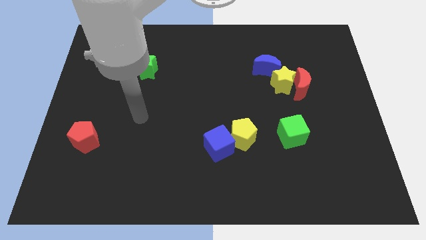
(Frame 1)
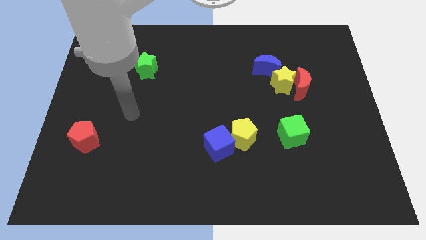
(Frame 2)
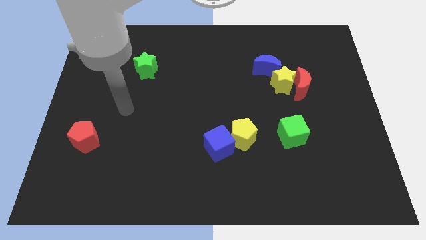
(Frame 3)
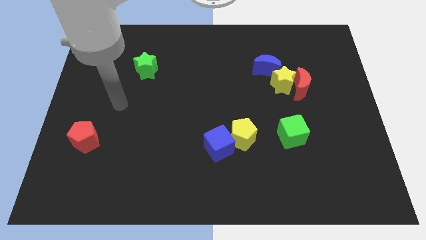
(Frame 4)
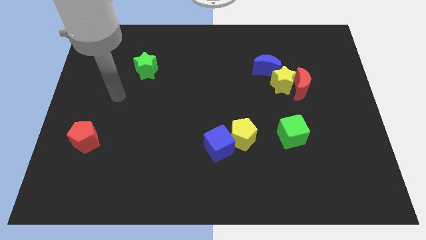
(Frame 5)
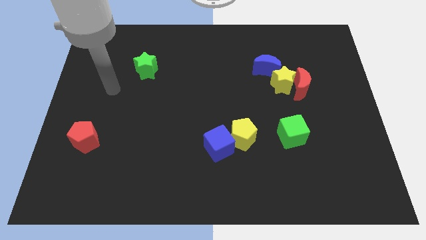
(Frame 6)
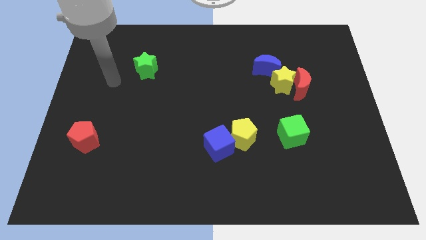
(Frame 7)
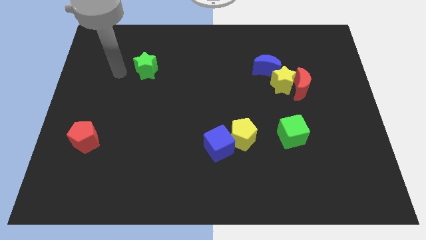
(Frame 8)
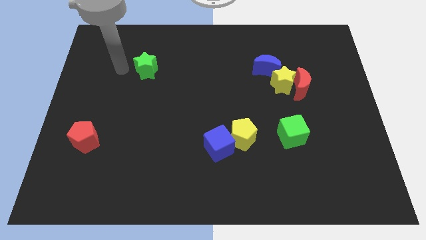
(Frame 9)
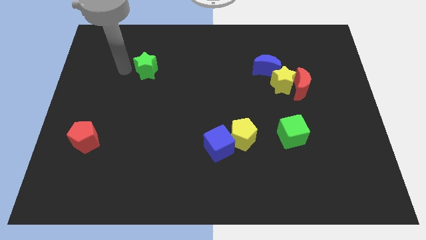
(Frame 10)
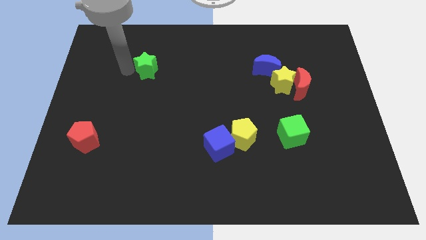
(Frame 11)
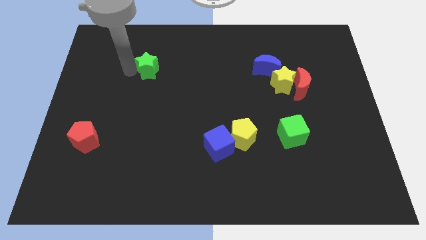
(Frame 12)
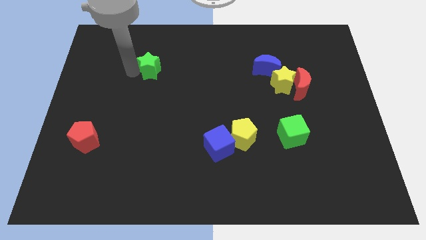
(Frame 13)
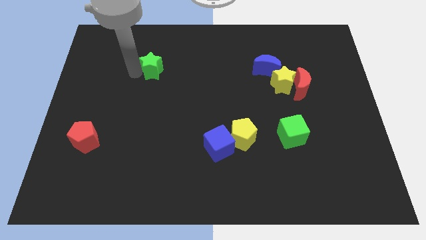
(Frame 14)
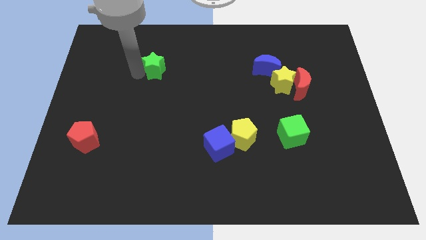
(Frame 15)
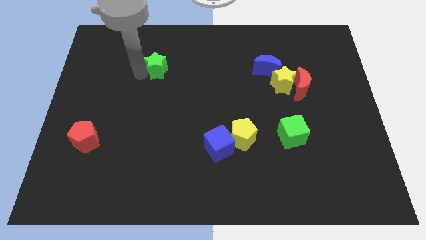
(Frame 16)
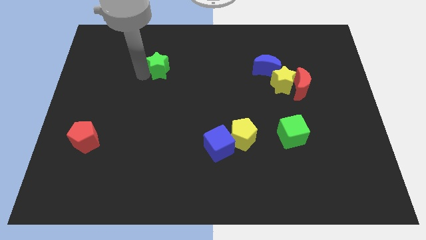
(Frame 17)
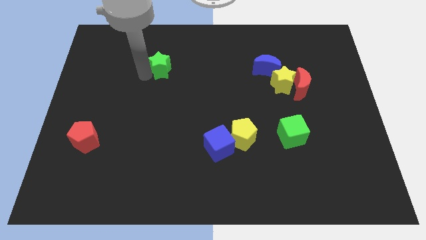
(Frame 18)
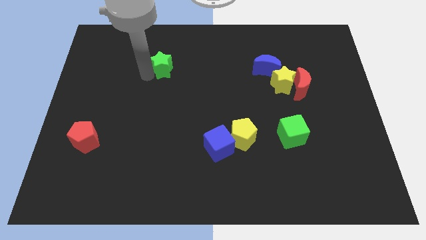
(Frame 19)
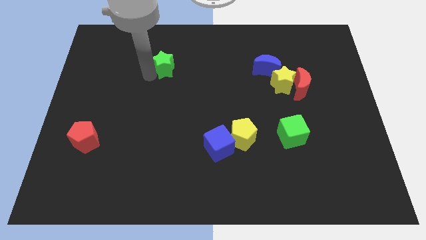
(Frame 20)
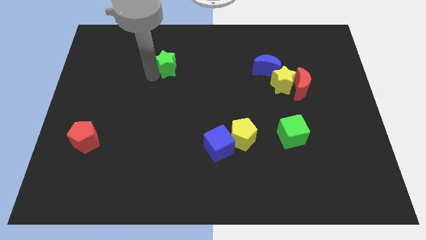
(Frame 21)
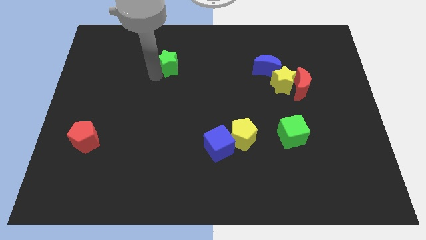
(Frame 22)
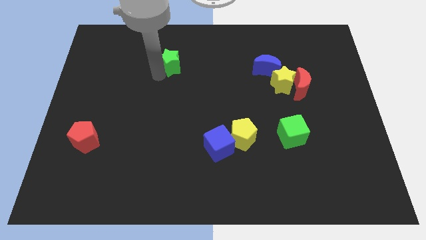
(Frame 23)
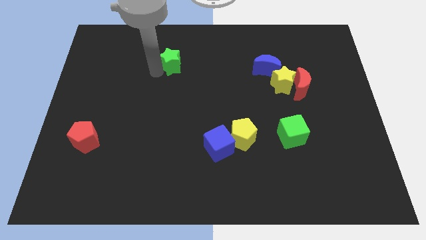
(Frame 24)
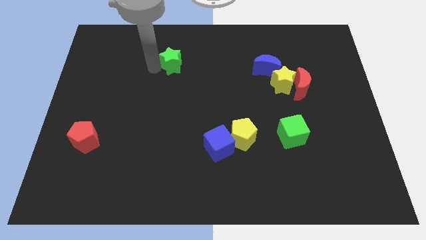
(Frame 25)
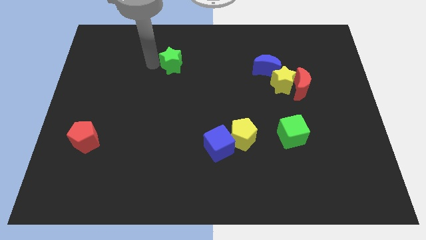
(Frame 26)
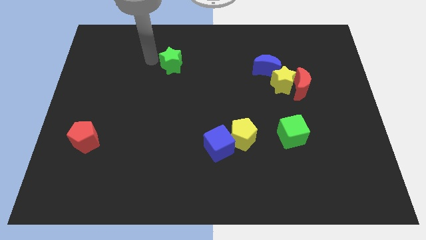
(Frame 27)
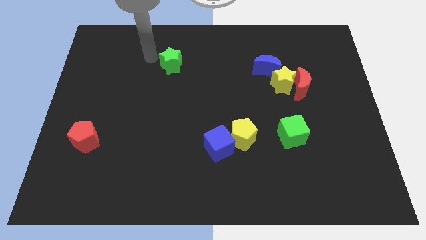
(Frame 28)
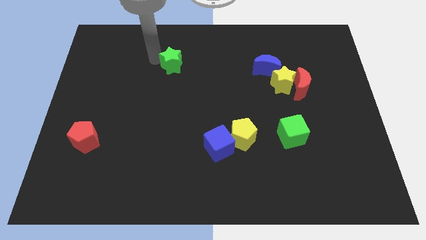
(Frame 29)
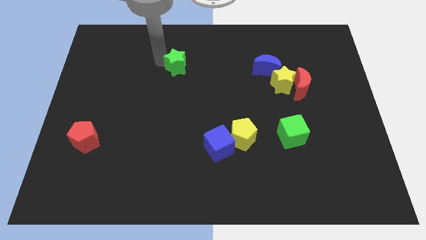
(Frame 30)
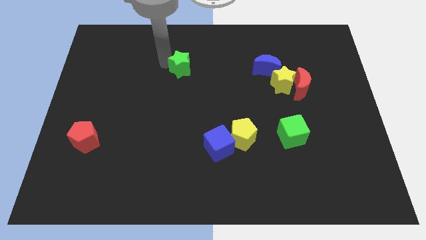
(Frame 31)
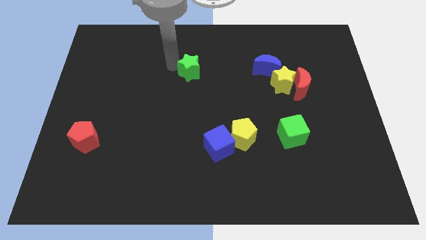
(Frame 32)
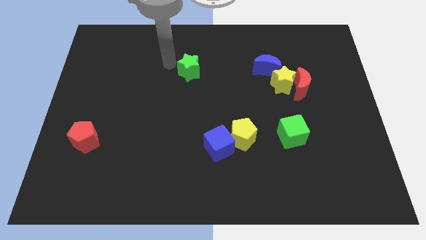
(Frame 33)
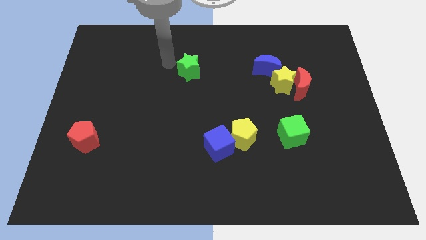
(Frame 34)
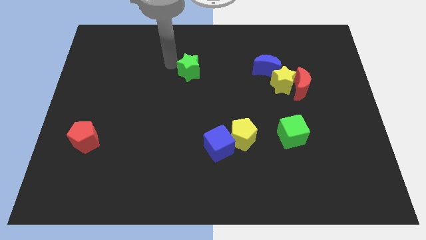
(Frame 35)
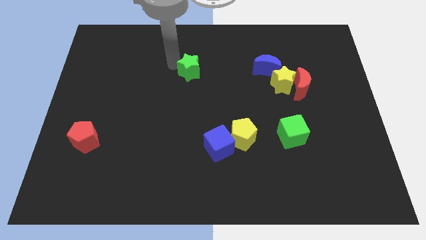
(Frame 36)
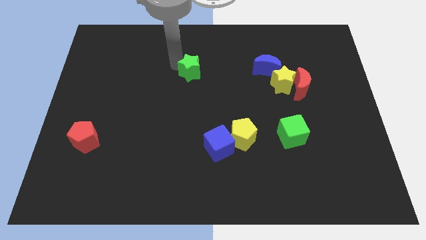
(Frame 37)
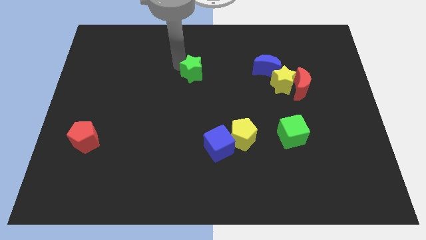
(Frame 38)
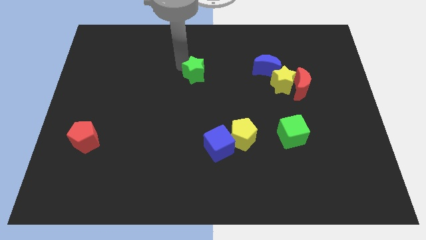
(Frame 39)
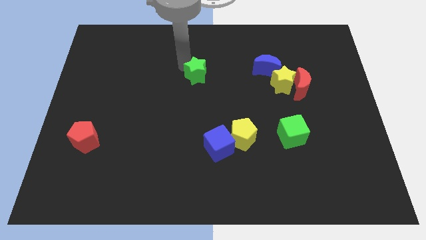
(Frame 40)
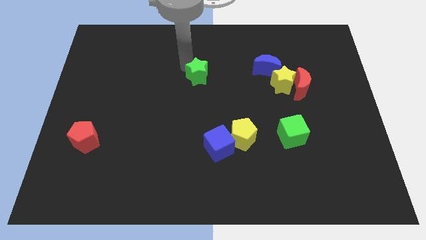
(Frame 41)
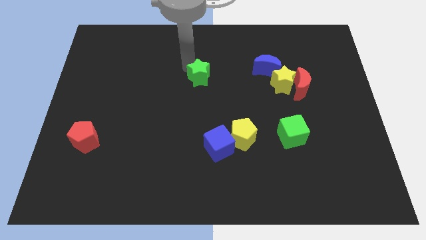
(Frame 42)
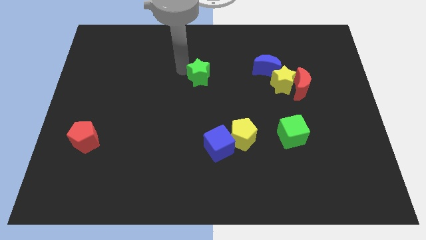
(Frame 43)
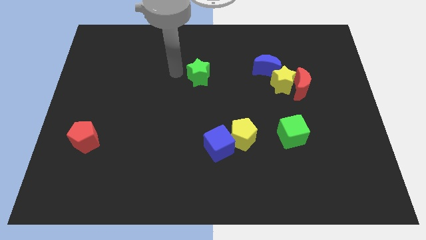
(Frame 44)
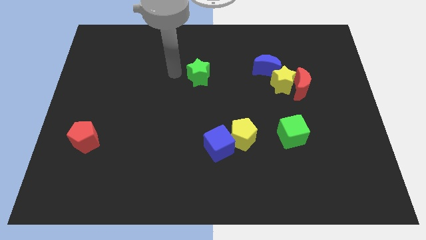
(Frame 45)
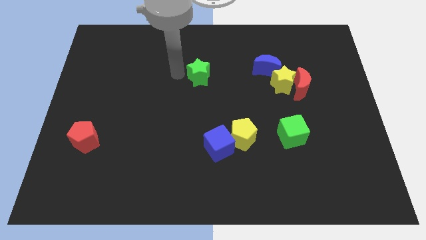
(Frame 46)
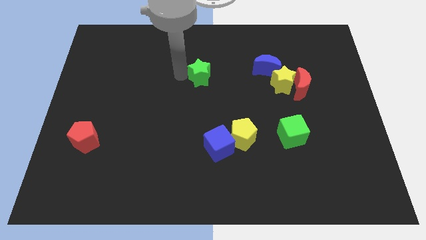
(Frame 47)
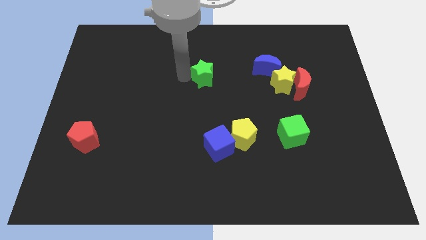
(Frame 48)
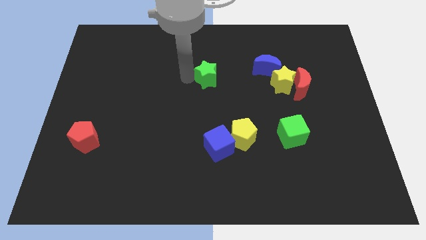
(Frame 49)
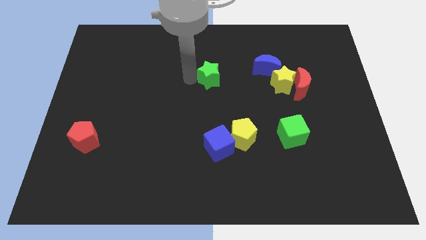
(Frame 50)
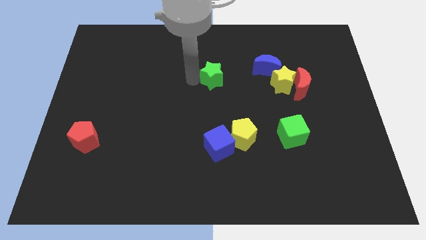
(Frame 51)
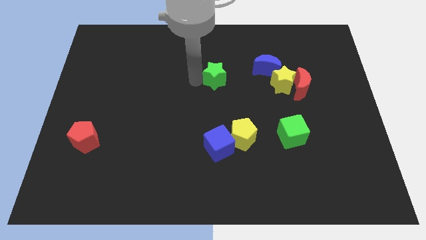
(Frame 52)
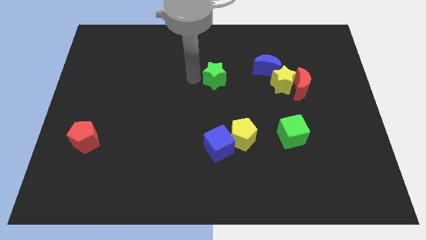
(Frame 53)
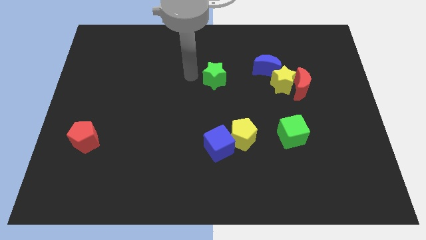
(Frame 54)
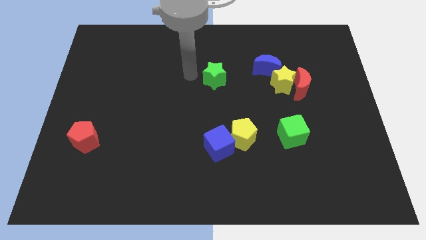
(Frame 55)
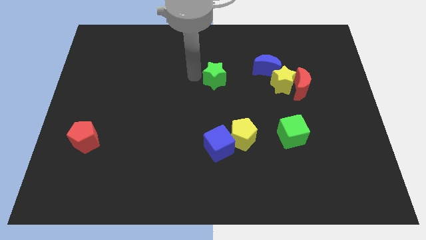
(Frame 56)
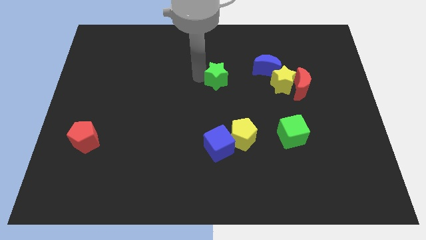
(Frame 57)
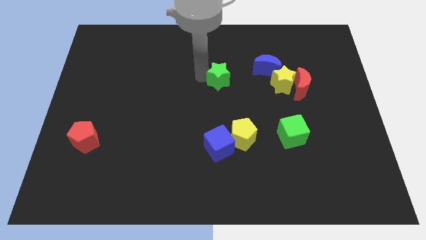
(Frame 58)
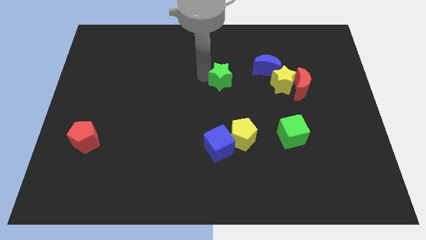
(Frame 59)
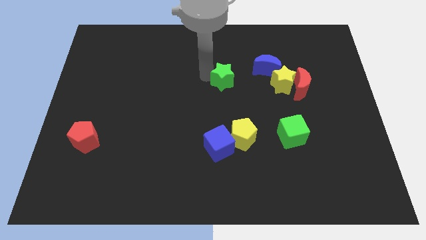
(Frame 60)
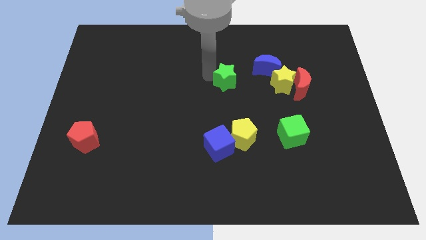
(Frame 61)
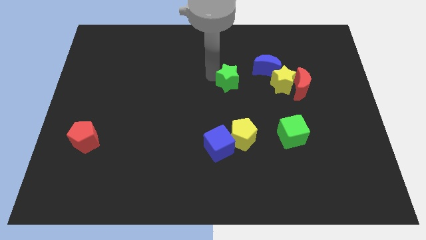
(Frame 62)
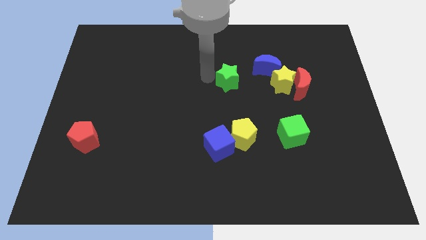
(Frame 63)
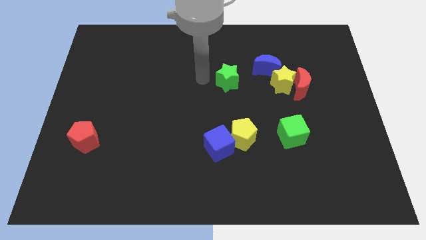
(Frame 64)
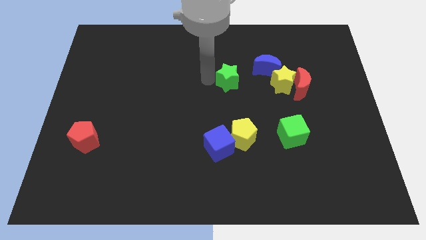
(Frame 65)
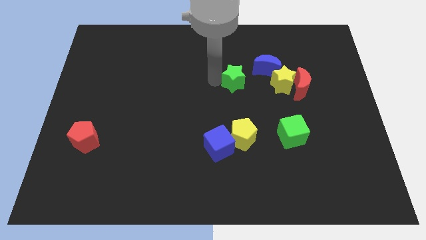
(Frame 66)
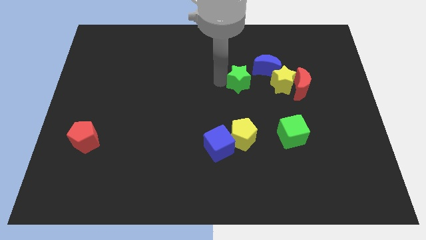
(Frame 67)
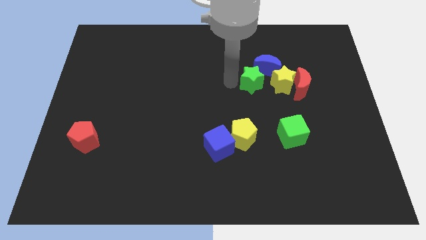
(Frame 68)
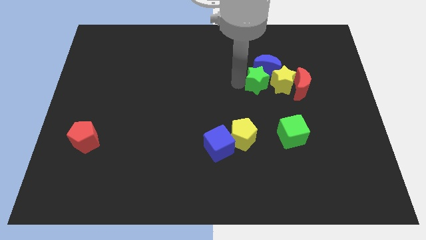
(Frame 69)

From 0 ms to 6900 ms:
put the green star close to the yellow star
